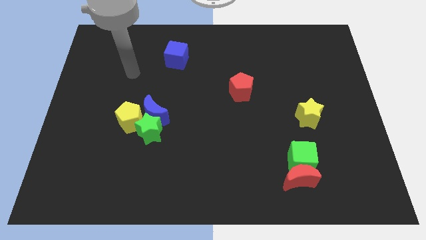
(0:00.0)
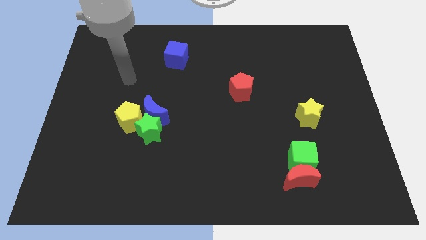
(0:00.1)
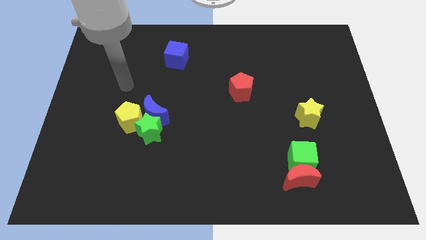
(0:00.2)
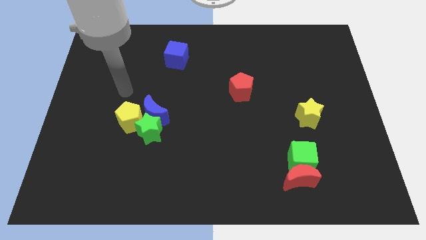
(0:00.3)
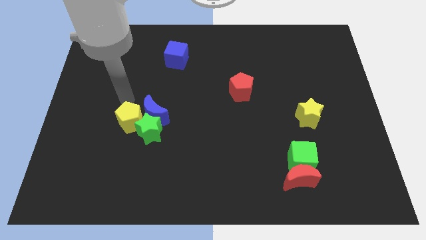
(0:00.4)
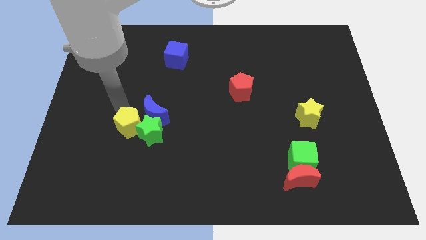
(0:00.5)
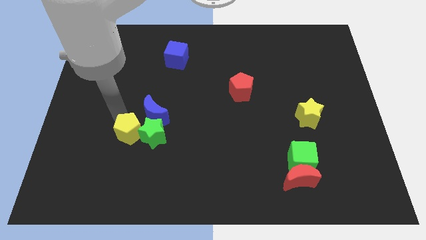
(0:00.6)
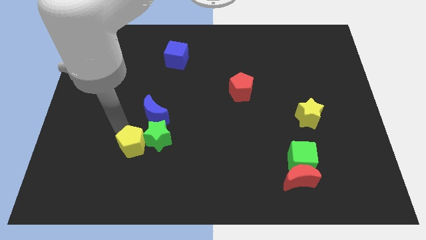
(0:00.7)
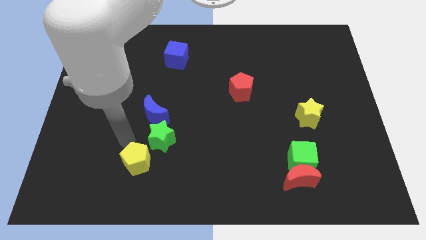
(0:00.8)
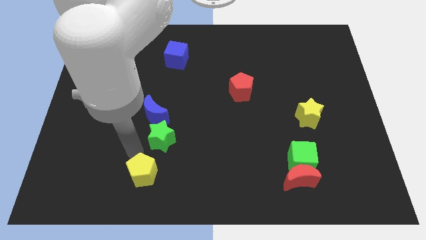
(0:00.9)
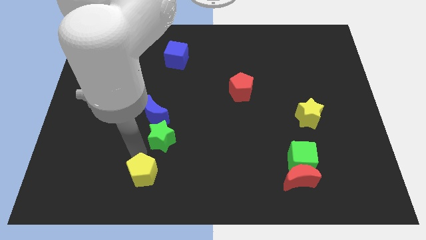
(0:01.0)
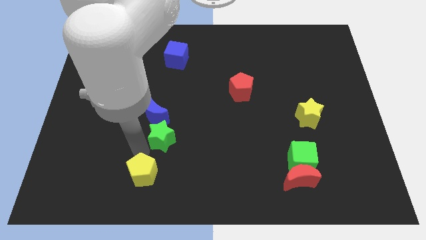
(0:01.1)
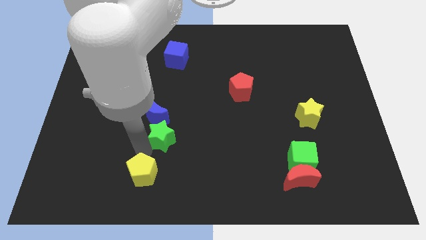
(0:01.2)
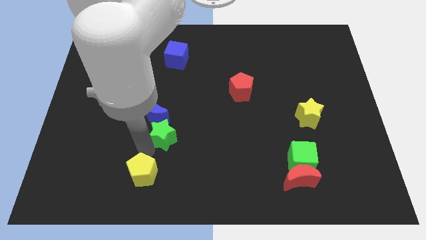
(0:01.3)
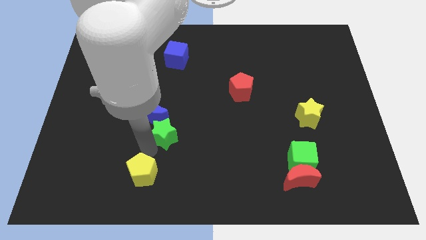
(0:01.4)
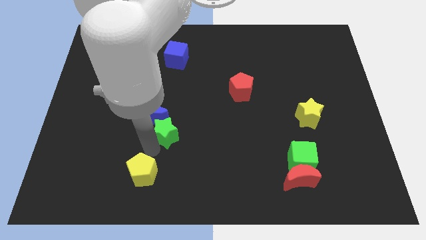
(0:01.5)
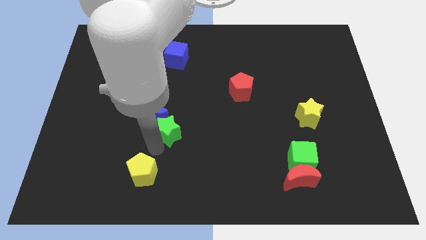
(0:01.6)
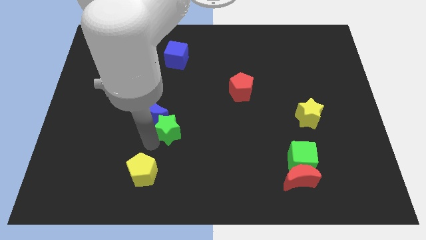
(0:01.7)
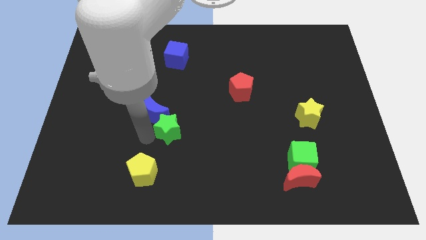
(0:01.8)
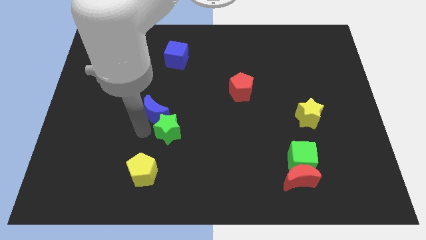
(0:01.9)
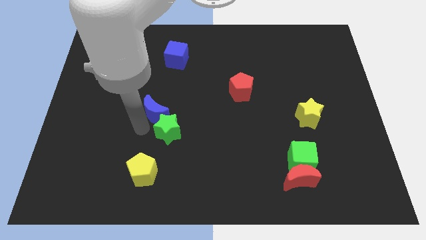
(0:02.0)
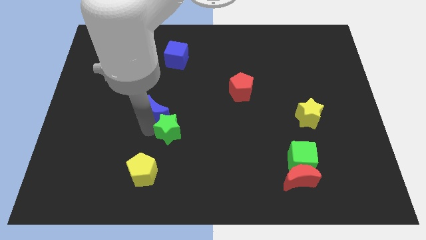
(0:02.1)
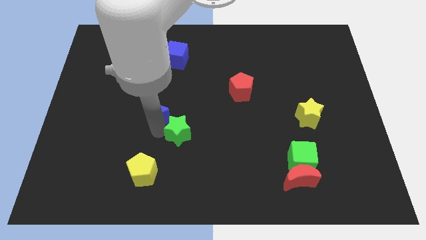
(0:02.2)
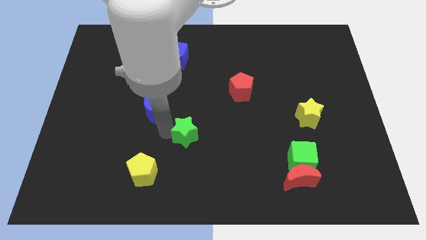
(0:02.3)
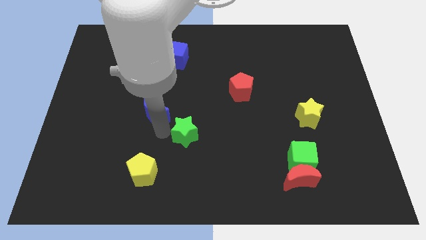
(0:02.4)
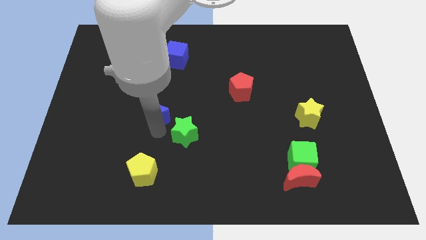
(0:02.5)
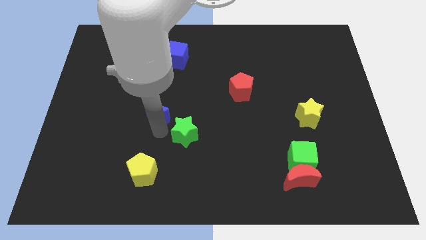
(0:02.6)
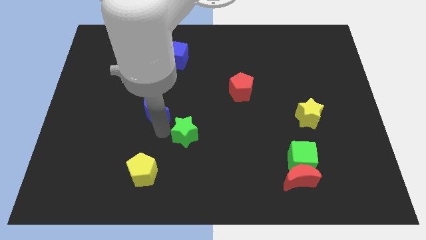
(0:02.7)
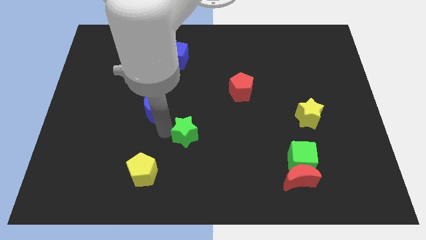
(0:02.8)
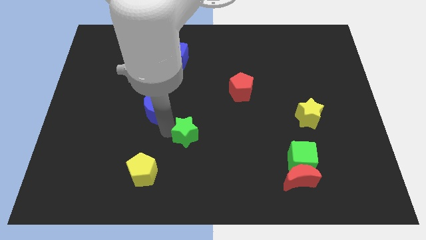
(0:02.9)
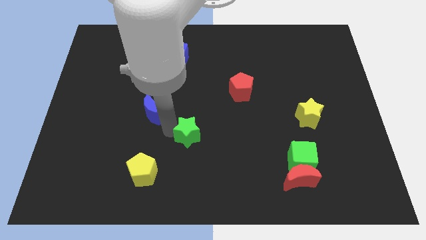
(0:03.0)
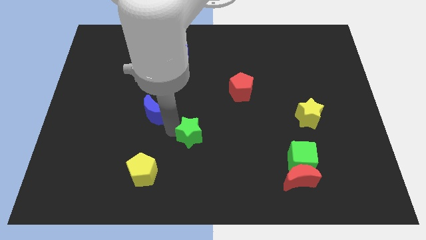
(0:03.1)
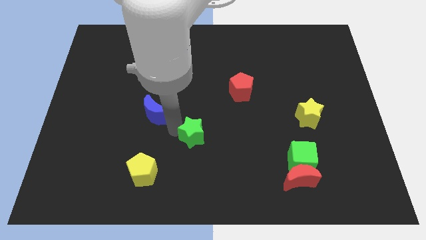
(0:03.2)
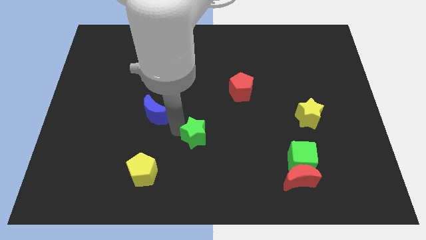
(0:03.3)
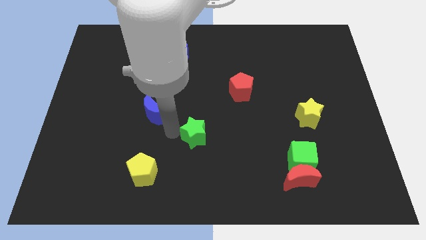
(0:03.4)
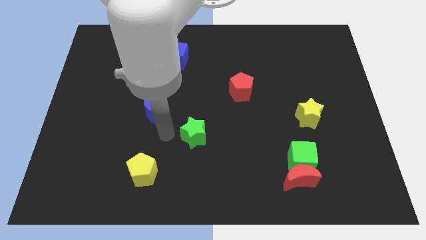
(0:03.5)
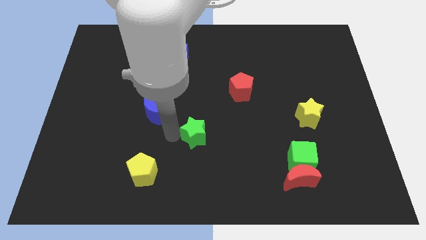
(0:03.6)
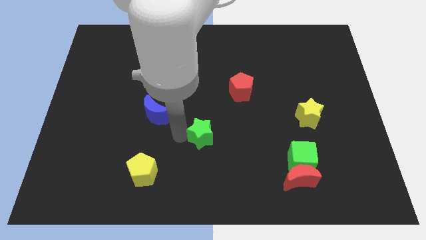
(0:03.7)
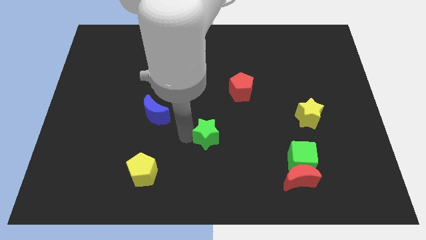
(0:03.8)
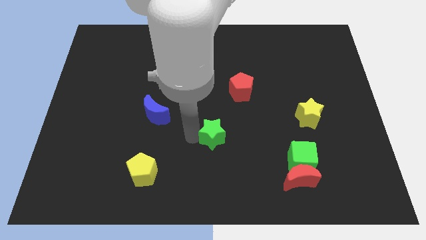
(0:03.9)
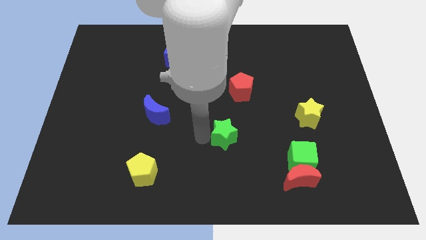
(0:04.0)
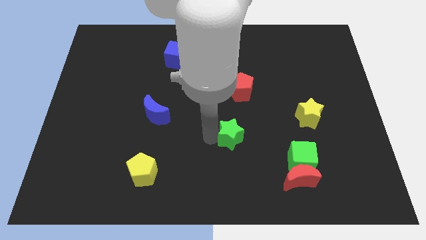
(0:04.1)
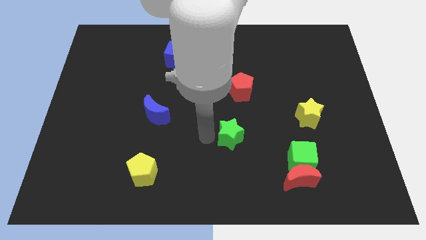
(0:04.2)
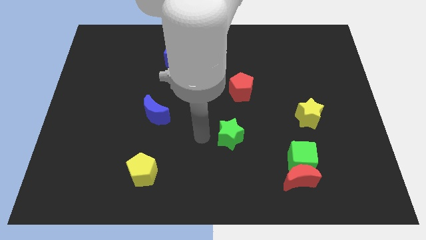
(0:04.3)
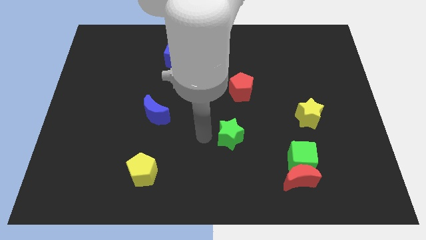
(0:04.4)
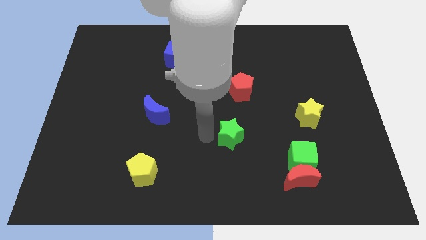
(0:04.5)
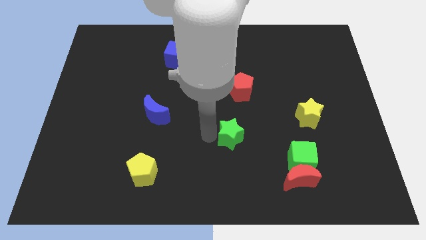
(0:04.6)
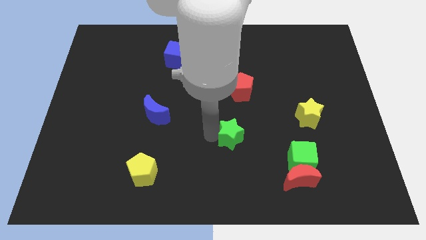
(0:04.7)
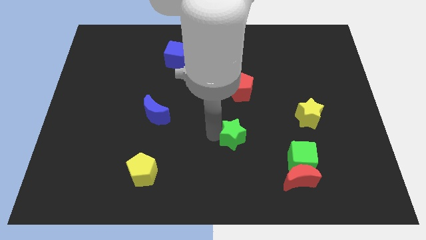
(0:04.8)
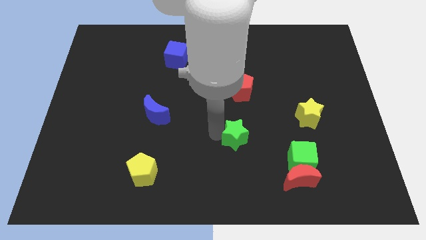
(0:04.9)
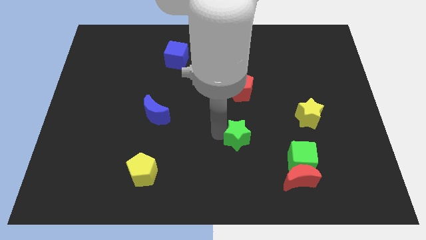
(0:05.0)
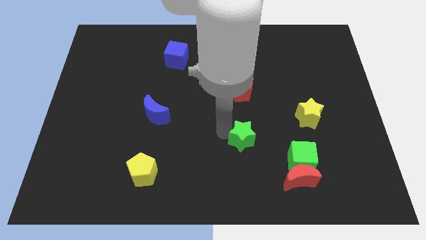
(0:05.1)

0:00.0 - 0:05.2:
push the green star right

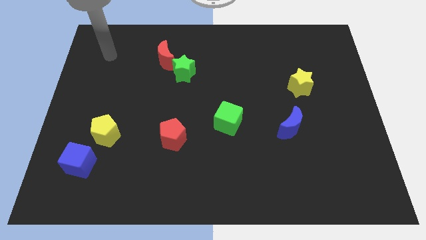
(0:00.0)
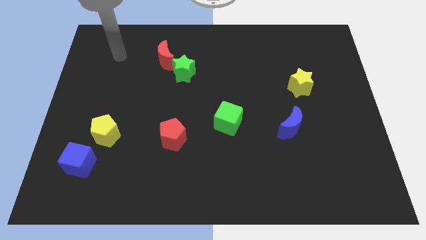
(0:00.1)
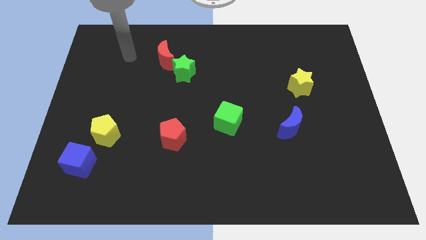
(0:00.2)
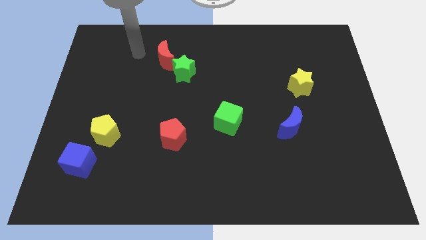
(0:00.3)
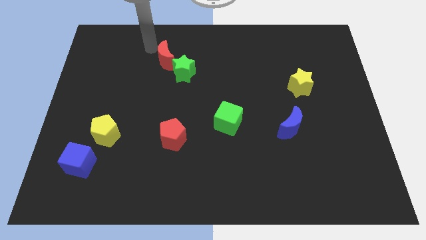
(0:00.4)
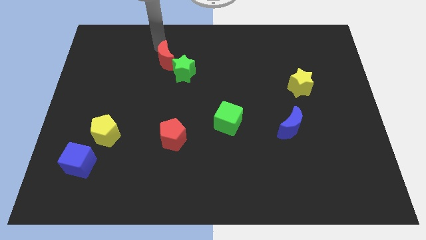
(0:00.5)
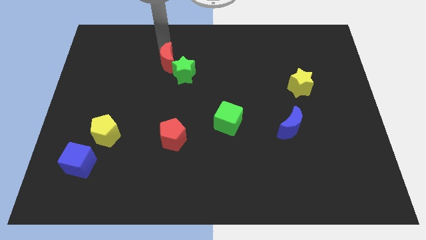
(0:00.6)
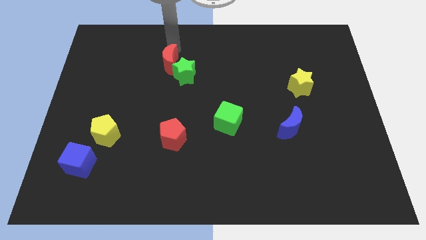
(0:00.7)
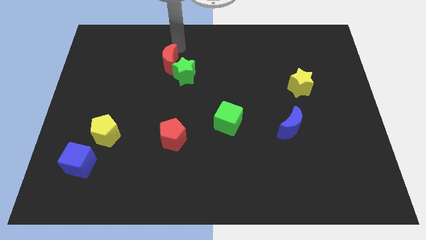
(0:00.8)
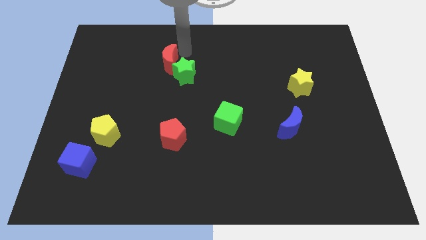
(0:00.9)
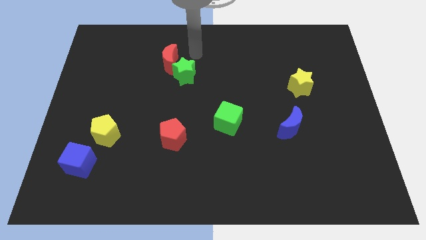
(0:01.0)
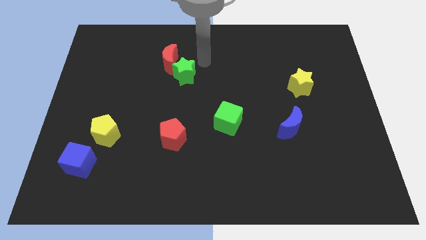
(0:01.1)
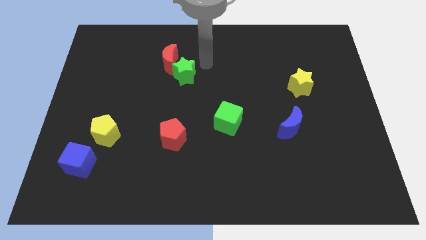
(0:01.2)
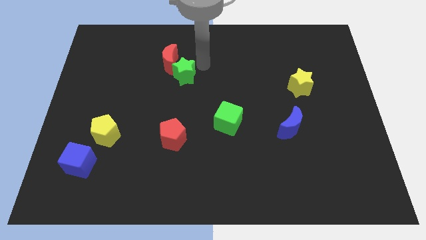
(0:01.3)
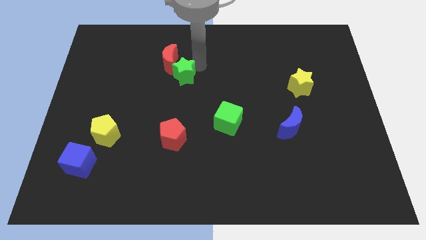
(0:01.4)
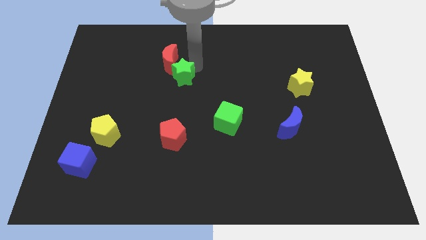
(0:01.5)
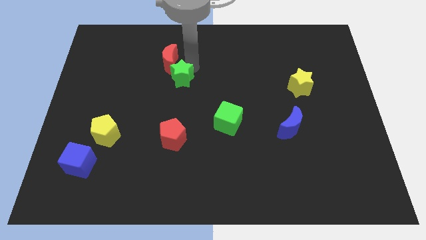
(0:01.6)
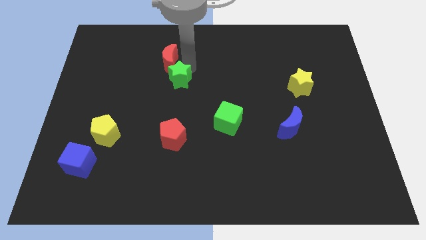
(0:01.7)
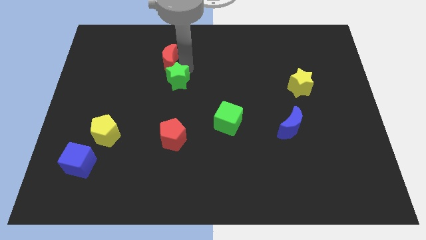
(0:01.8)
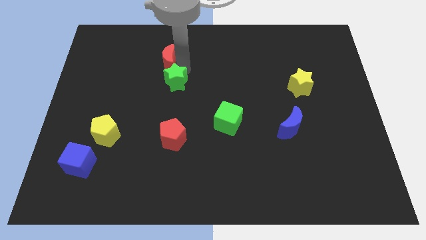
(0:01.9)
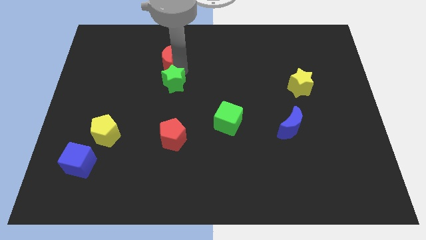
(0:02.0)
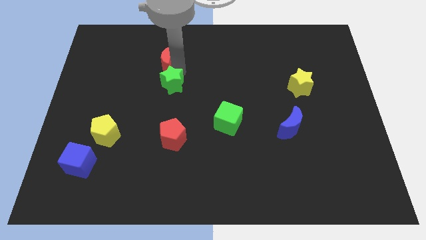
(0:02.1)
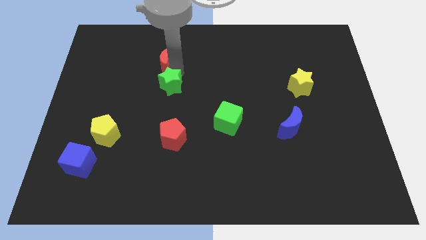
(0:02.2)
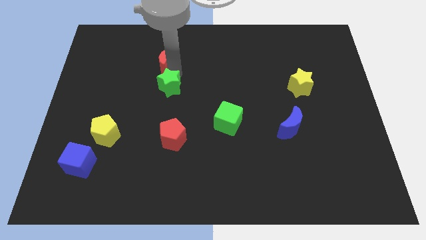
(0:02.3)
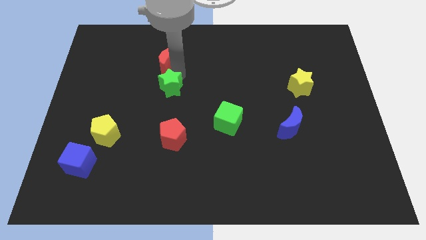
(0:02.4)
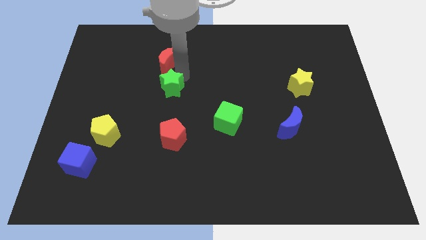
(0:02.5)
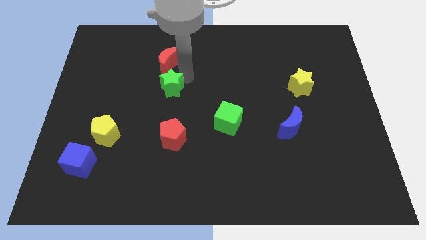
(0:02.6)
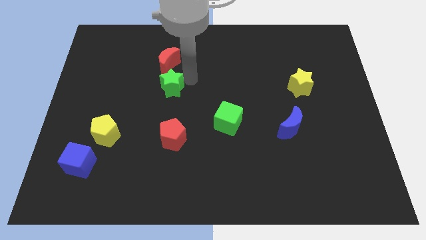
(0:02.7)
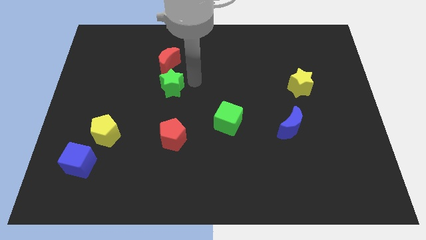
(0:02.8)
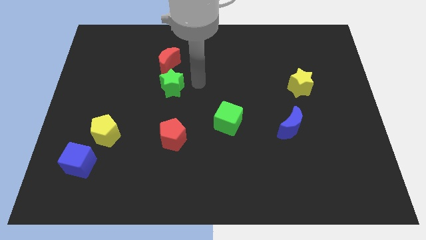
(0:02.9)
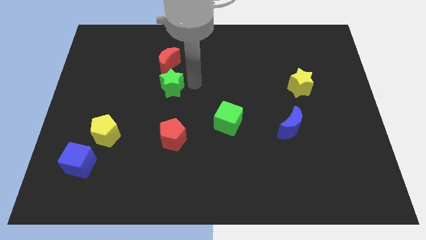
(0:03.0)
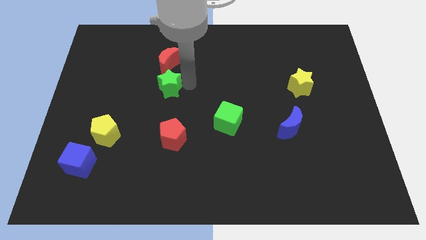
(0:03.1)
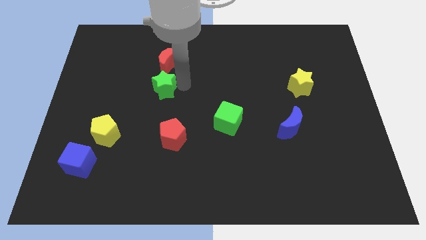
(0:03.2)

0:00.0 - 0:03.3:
move the green star somewhat down and left
